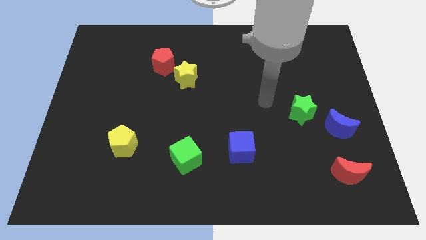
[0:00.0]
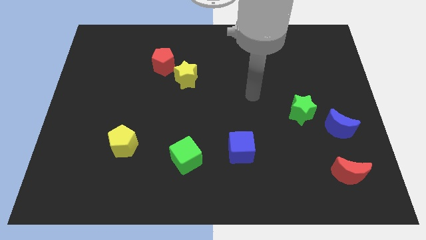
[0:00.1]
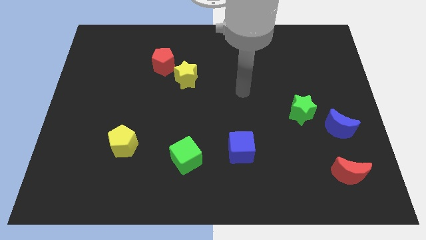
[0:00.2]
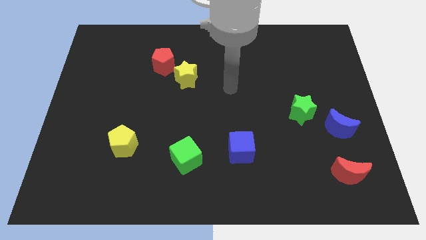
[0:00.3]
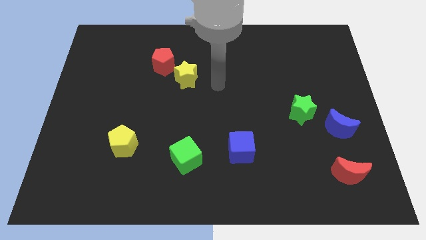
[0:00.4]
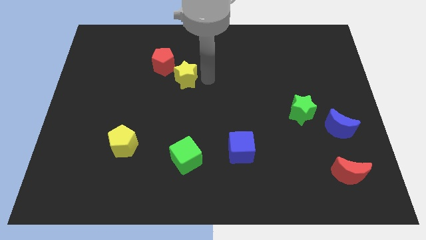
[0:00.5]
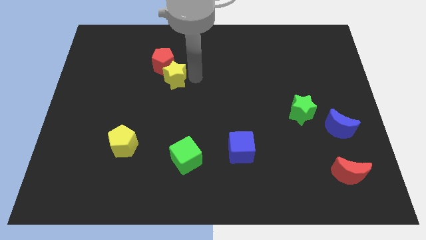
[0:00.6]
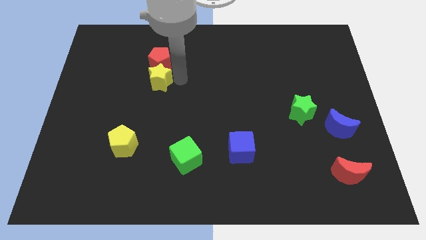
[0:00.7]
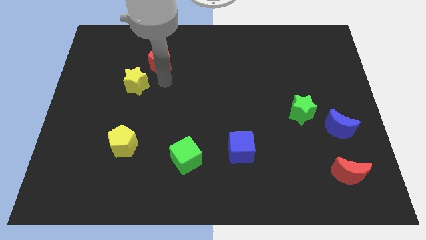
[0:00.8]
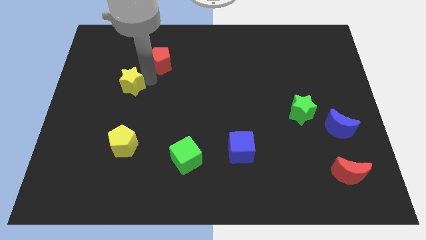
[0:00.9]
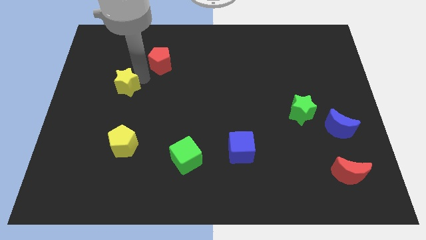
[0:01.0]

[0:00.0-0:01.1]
move the red pentagon away from the yellow star

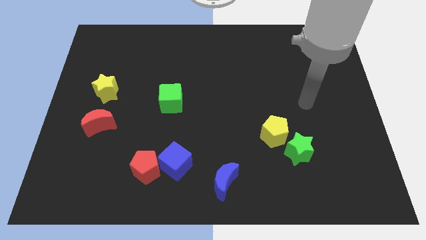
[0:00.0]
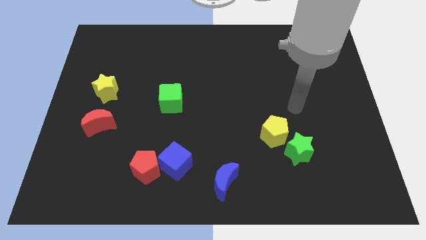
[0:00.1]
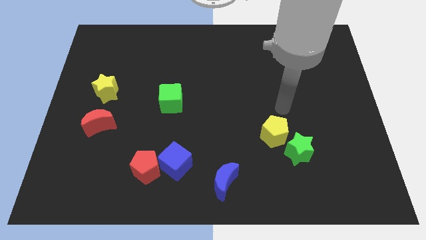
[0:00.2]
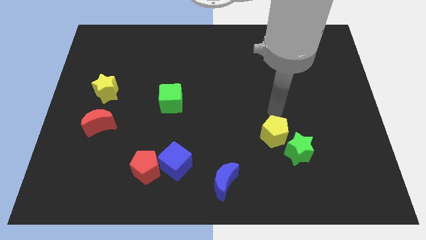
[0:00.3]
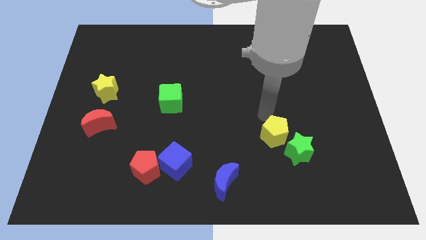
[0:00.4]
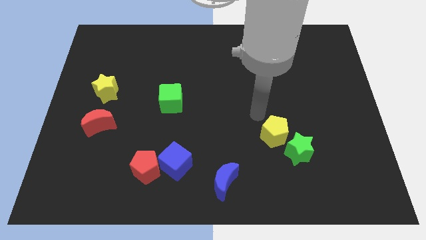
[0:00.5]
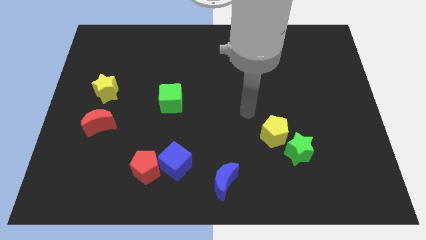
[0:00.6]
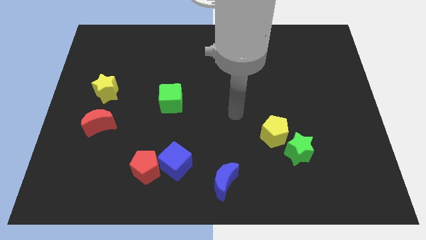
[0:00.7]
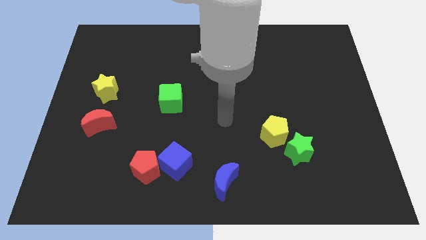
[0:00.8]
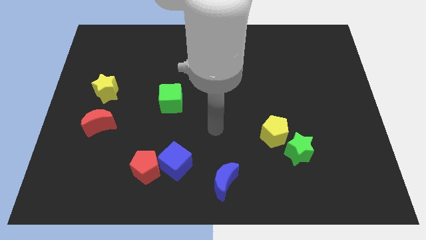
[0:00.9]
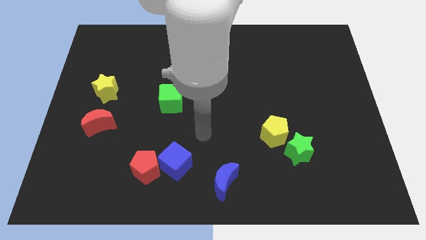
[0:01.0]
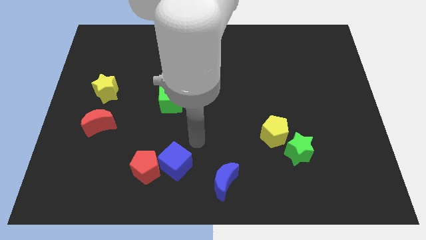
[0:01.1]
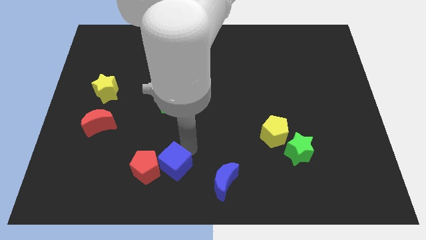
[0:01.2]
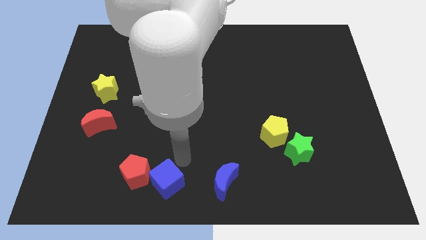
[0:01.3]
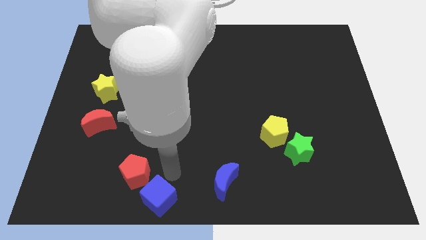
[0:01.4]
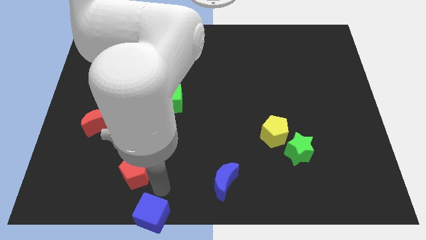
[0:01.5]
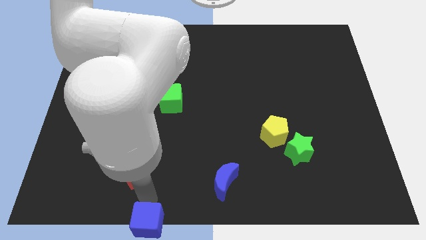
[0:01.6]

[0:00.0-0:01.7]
separate the red pentagon from the blue cube

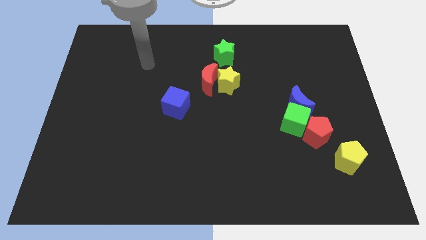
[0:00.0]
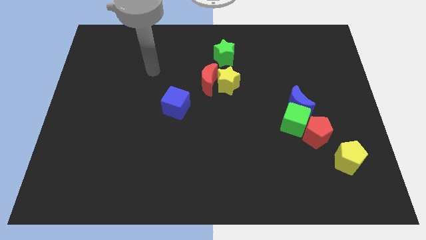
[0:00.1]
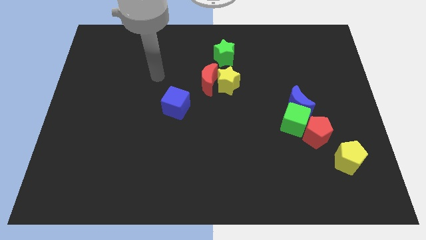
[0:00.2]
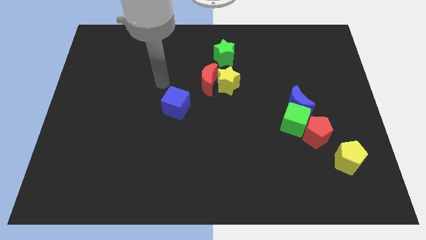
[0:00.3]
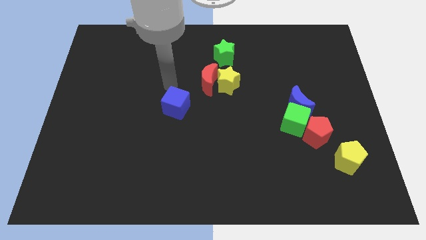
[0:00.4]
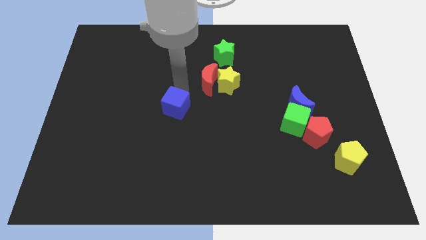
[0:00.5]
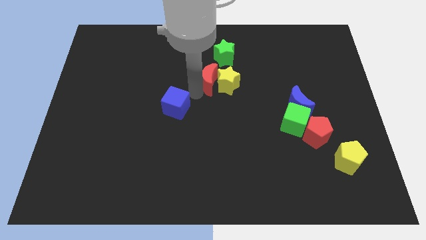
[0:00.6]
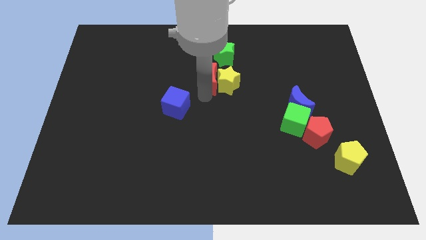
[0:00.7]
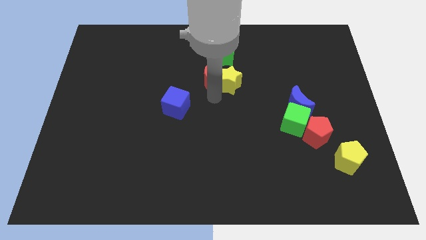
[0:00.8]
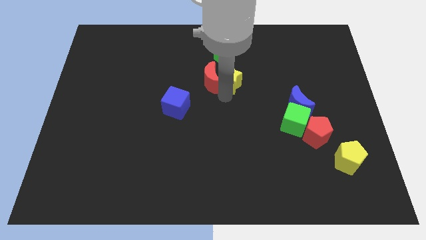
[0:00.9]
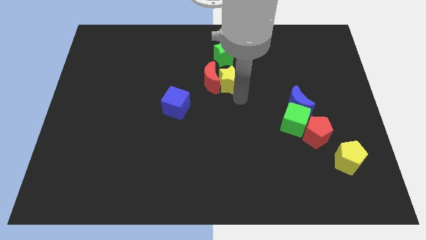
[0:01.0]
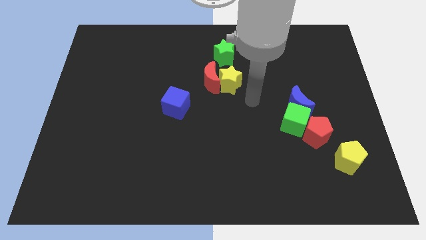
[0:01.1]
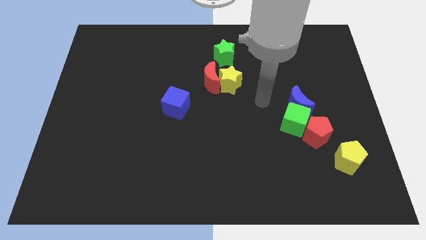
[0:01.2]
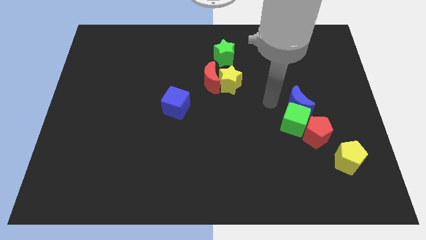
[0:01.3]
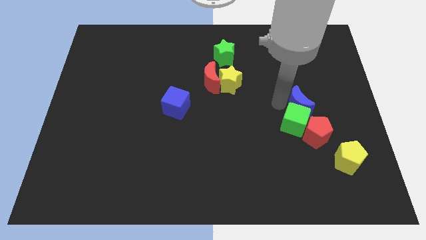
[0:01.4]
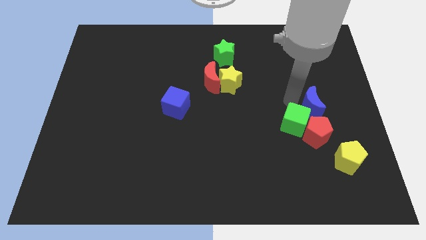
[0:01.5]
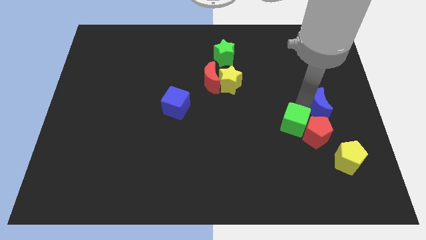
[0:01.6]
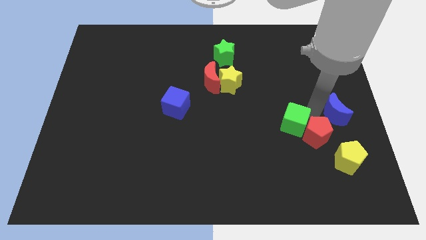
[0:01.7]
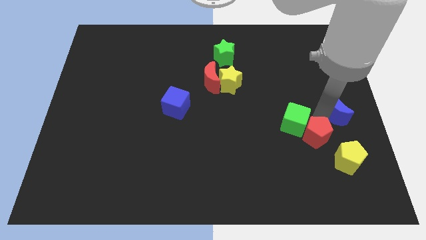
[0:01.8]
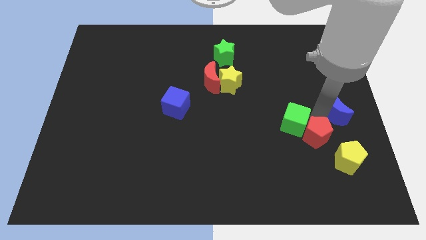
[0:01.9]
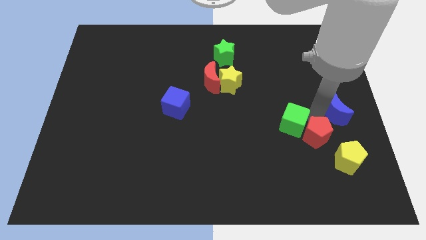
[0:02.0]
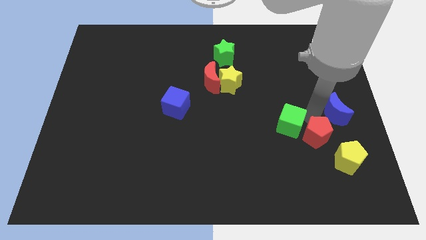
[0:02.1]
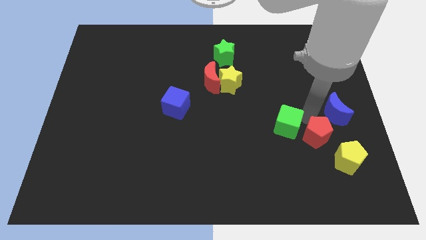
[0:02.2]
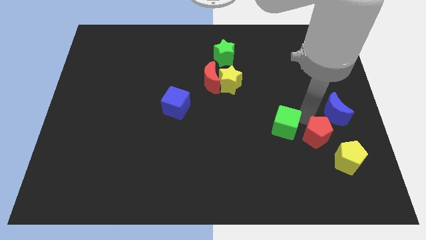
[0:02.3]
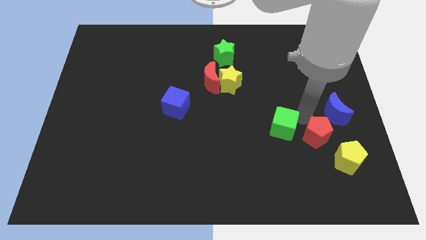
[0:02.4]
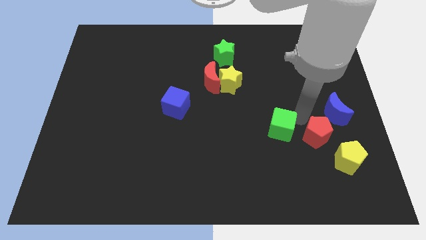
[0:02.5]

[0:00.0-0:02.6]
separate the green cube from the blue moon and red pentagon

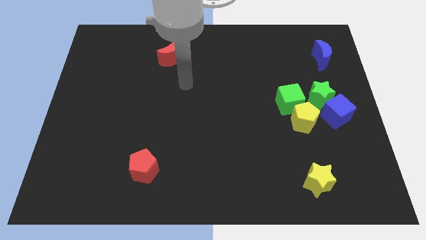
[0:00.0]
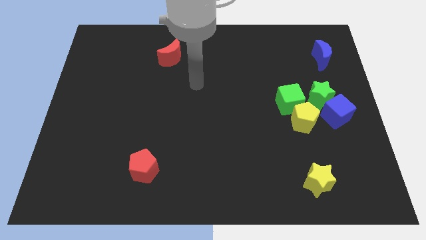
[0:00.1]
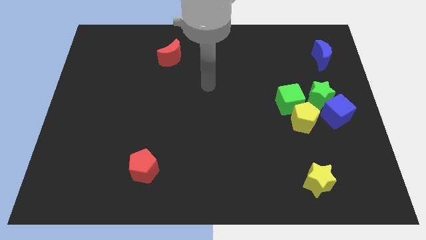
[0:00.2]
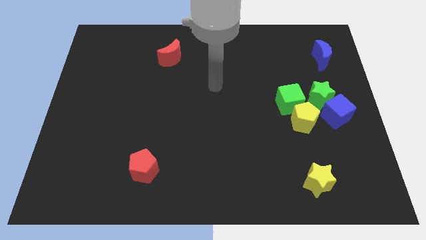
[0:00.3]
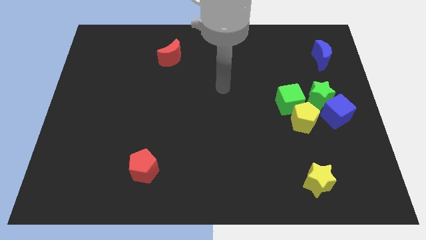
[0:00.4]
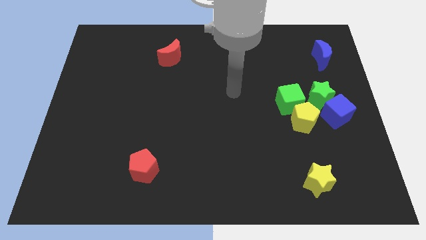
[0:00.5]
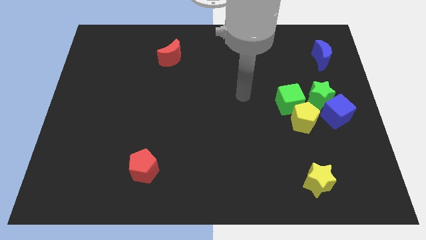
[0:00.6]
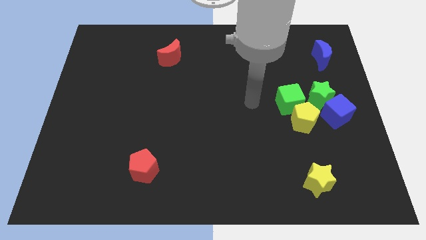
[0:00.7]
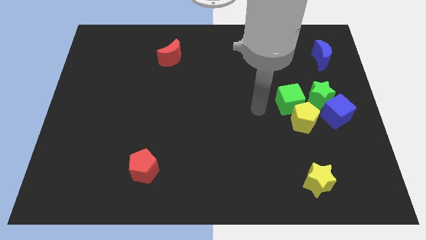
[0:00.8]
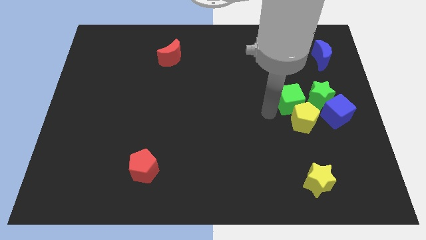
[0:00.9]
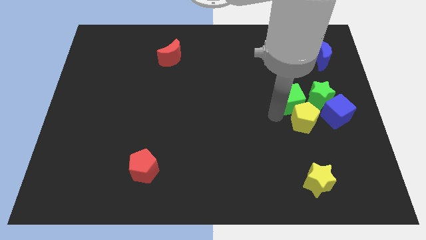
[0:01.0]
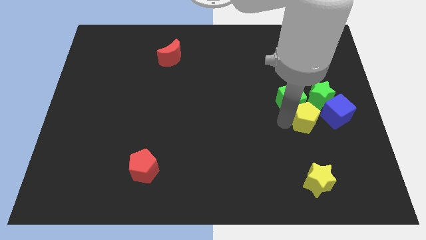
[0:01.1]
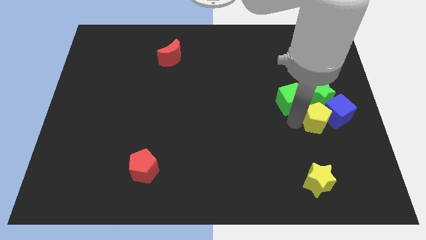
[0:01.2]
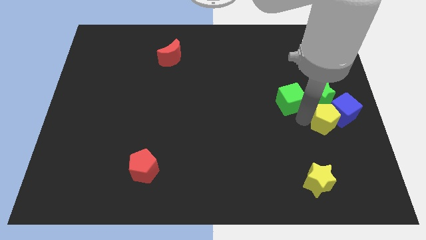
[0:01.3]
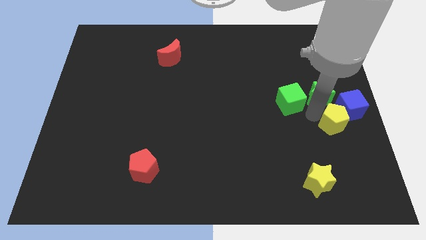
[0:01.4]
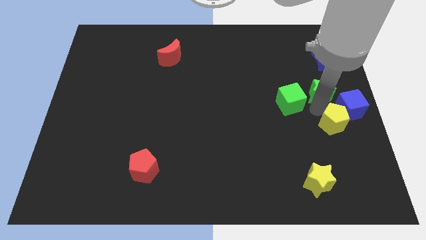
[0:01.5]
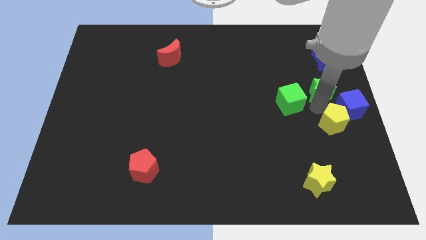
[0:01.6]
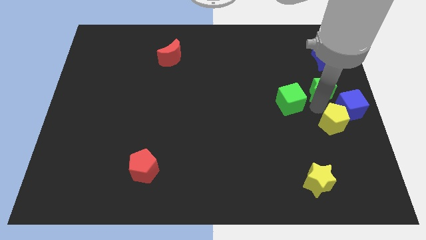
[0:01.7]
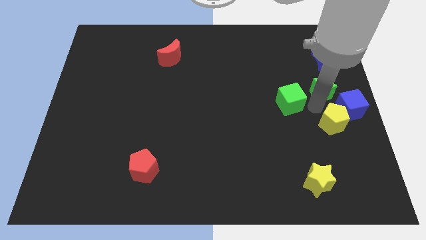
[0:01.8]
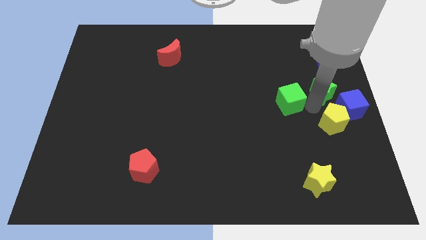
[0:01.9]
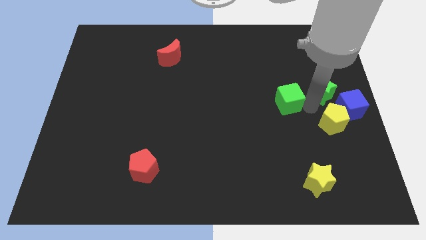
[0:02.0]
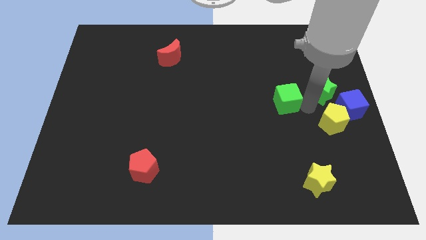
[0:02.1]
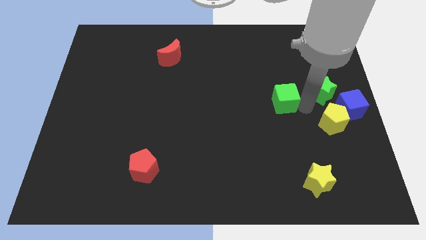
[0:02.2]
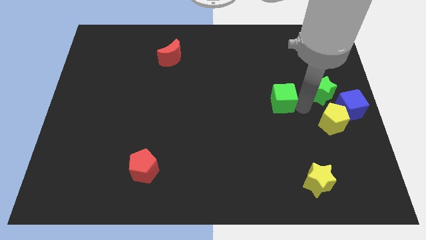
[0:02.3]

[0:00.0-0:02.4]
move the green cube away from the yellow pentagon and green star

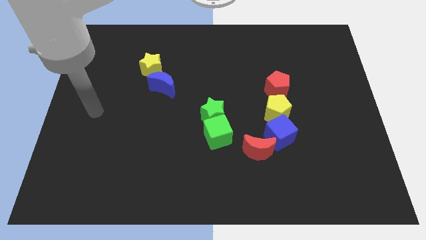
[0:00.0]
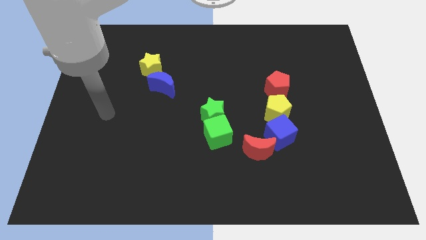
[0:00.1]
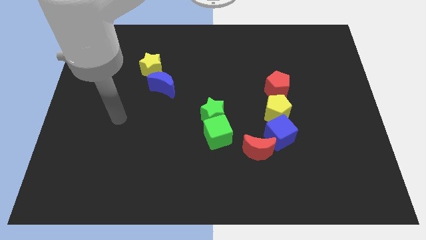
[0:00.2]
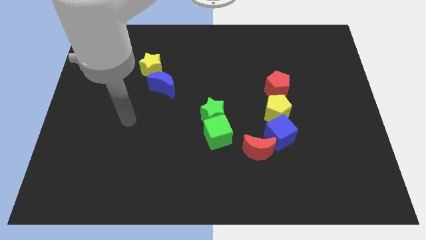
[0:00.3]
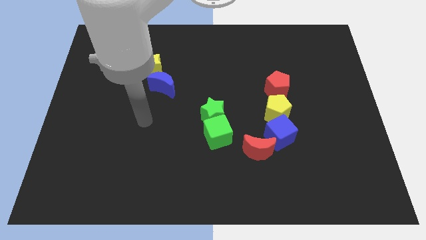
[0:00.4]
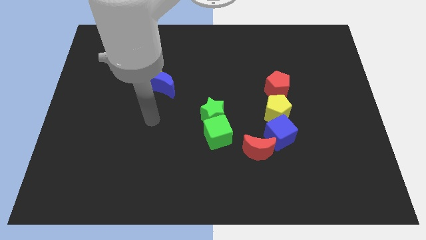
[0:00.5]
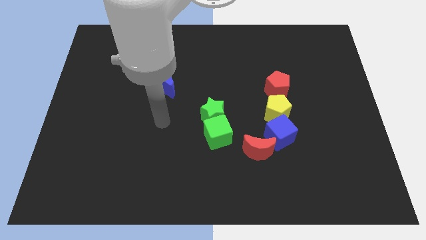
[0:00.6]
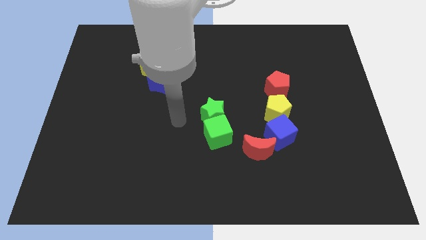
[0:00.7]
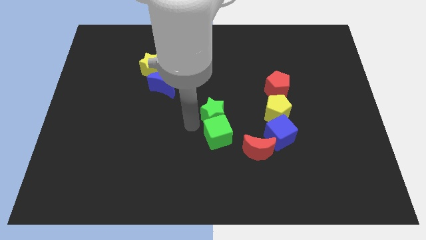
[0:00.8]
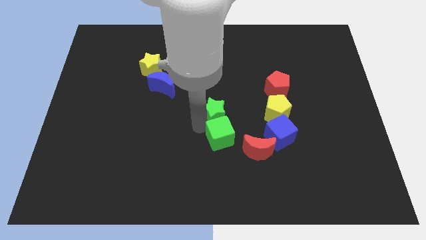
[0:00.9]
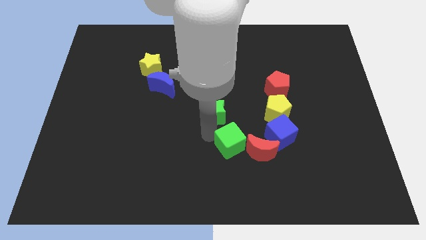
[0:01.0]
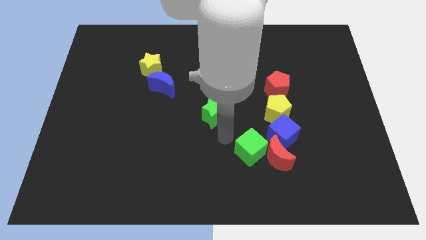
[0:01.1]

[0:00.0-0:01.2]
pull the green star apart from the green cube

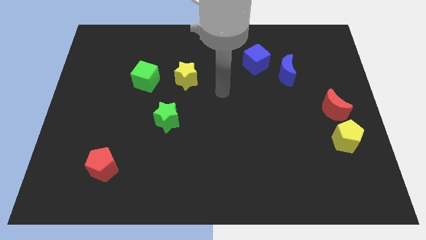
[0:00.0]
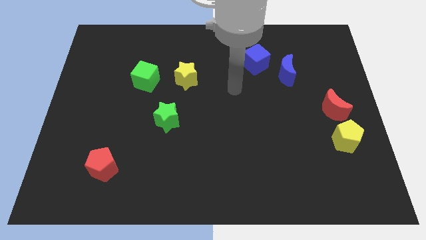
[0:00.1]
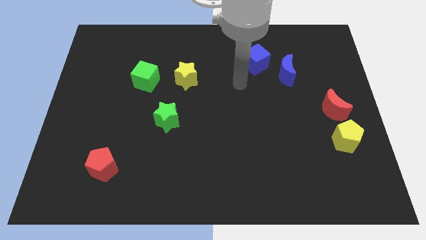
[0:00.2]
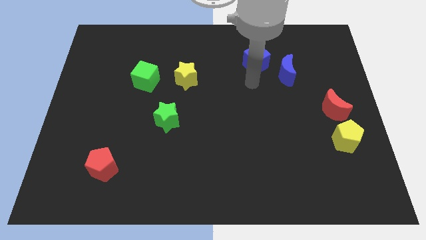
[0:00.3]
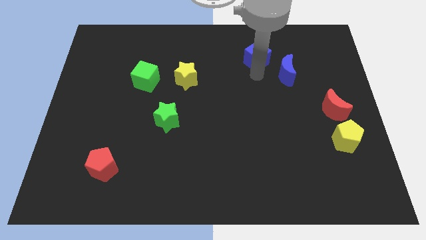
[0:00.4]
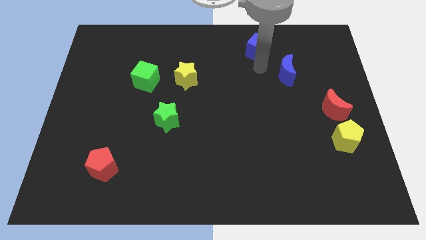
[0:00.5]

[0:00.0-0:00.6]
separate the blue moon from the blue cube
